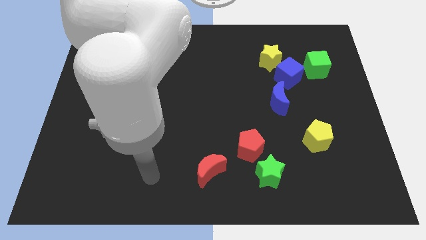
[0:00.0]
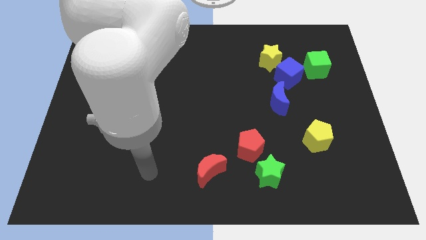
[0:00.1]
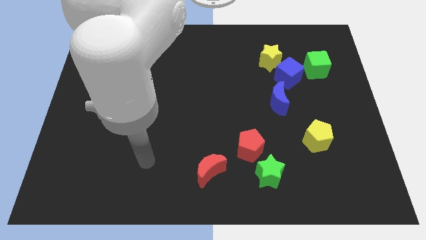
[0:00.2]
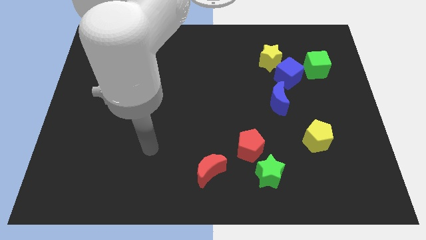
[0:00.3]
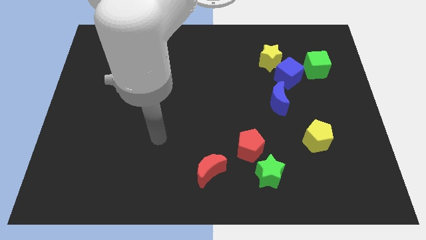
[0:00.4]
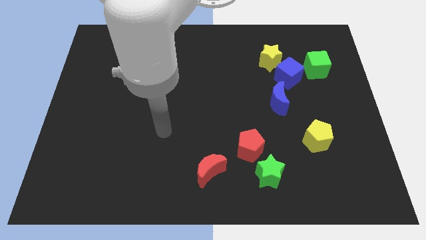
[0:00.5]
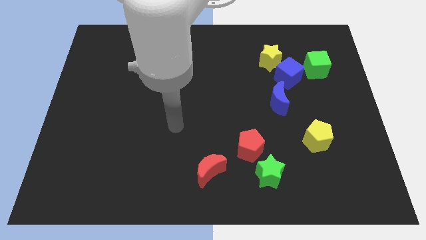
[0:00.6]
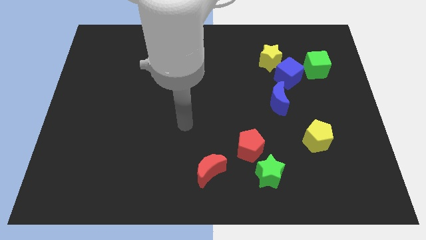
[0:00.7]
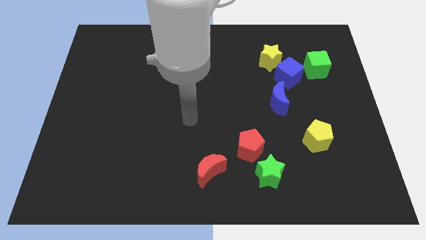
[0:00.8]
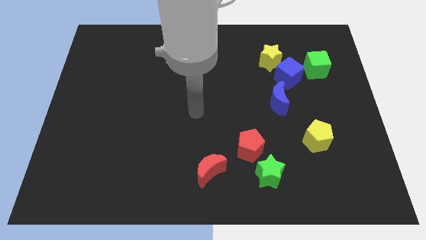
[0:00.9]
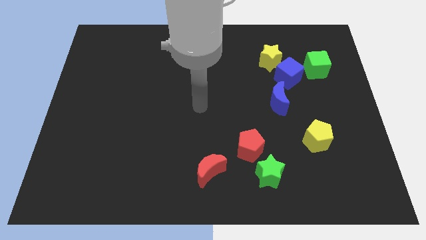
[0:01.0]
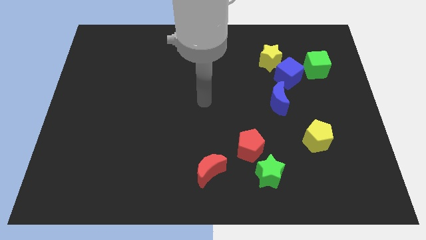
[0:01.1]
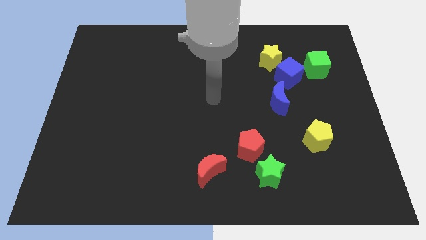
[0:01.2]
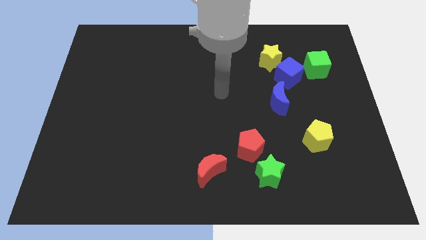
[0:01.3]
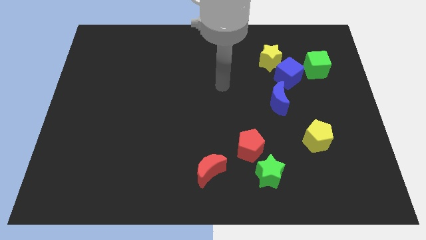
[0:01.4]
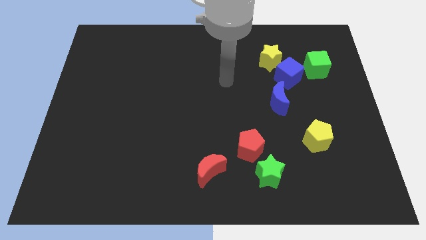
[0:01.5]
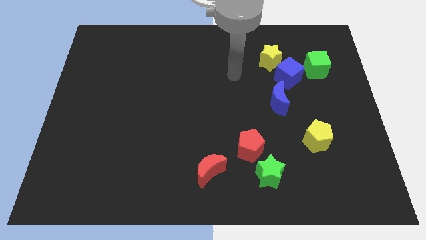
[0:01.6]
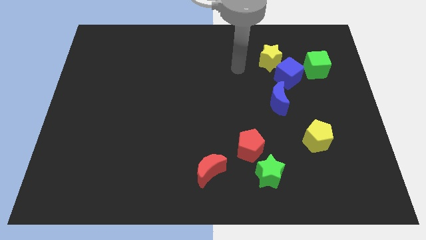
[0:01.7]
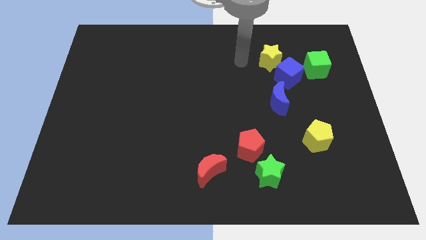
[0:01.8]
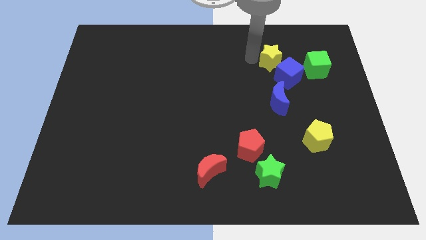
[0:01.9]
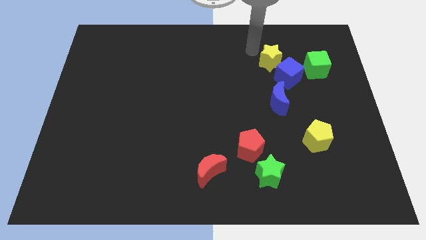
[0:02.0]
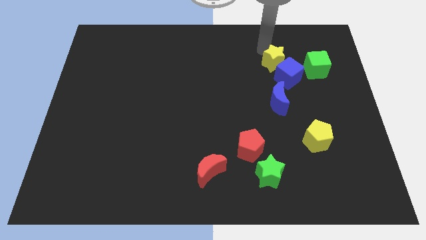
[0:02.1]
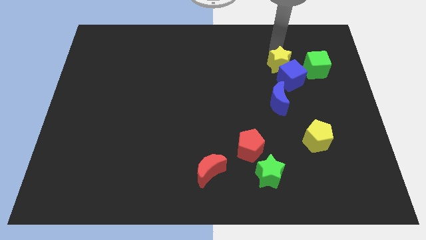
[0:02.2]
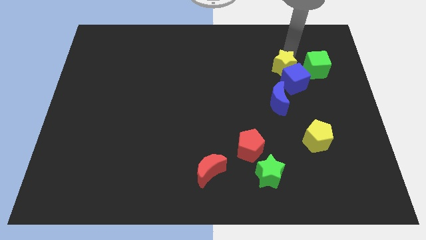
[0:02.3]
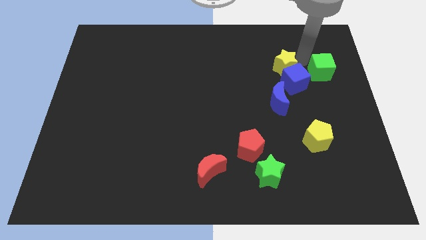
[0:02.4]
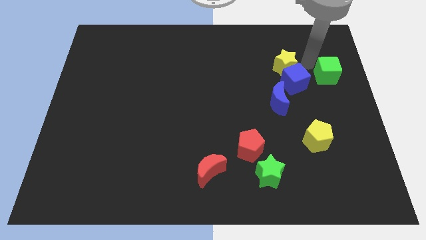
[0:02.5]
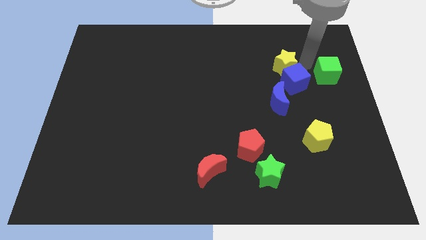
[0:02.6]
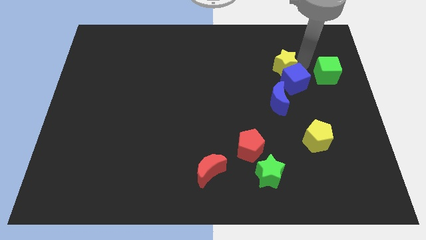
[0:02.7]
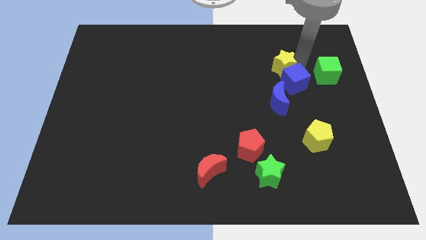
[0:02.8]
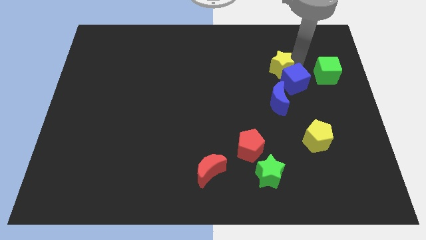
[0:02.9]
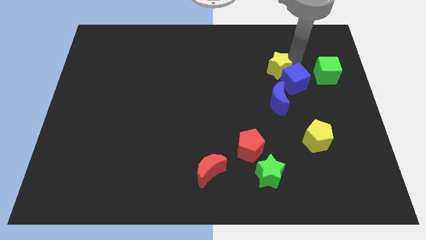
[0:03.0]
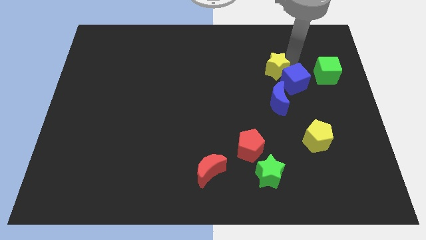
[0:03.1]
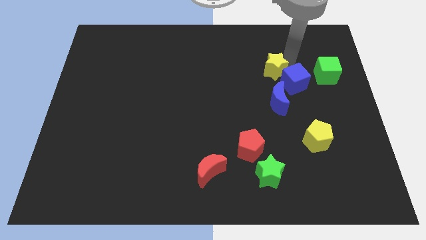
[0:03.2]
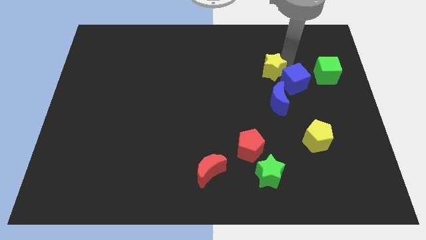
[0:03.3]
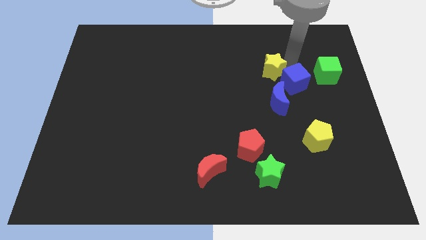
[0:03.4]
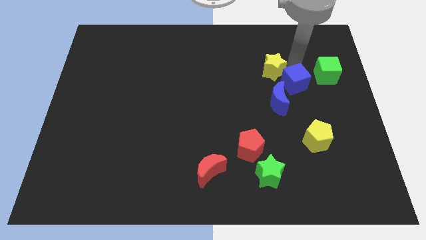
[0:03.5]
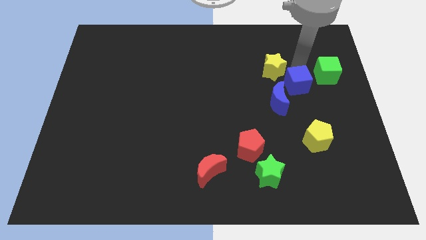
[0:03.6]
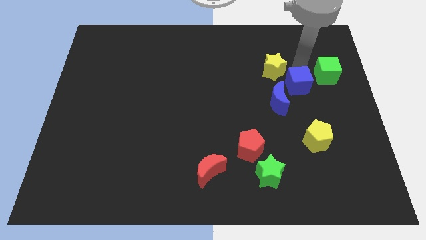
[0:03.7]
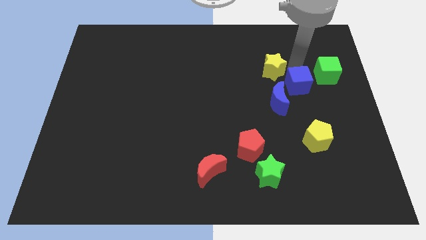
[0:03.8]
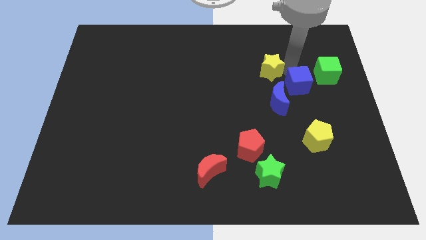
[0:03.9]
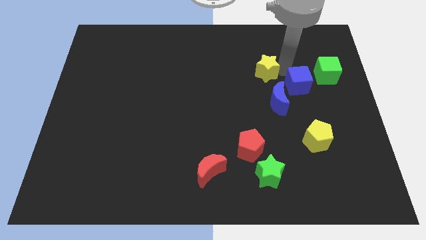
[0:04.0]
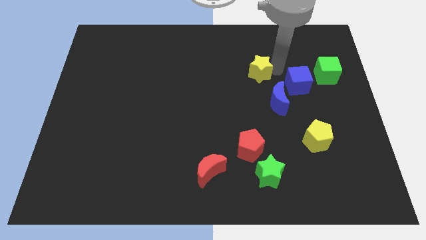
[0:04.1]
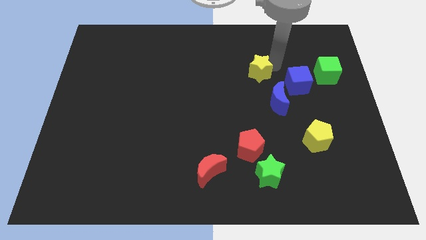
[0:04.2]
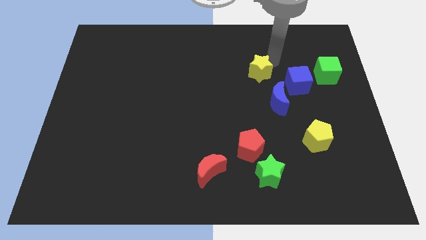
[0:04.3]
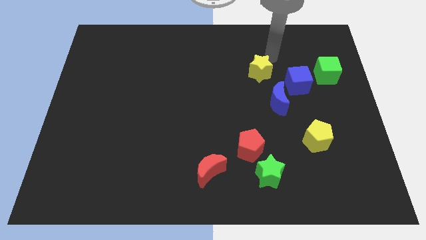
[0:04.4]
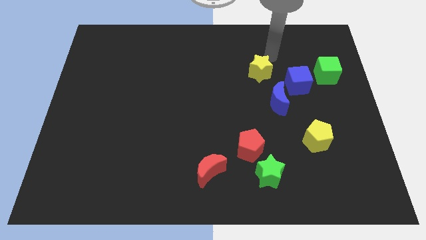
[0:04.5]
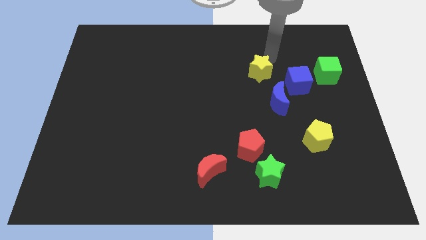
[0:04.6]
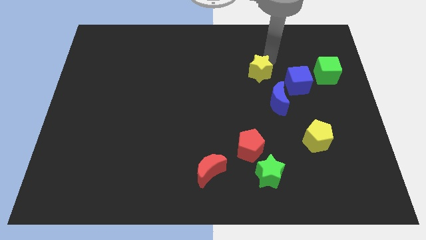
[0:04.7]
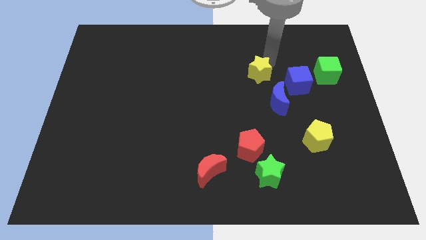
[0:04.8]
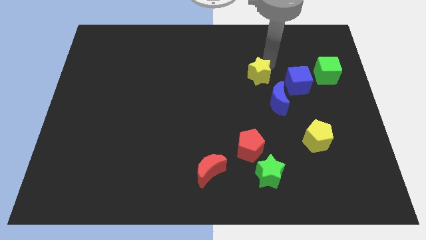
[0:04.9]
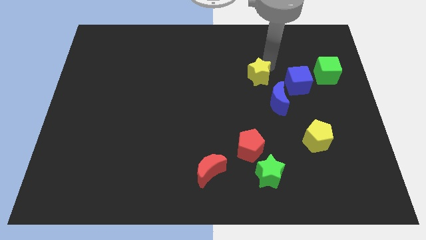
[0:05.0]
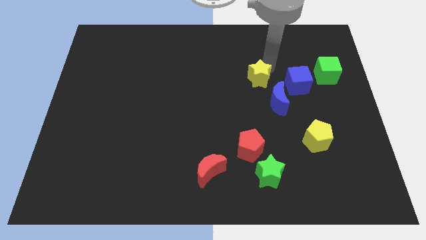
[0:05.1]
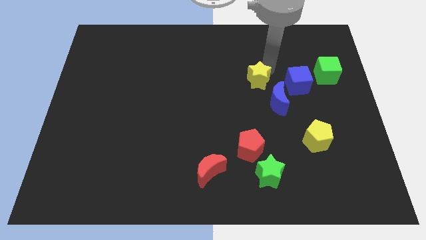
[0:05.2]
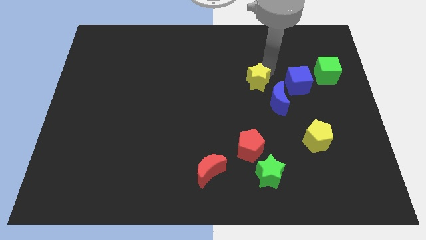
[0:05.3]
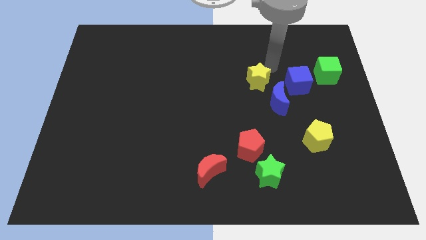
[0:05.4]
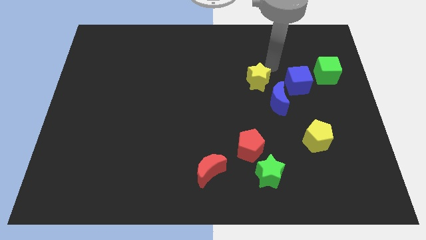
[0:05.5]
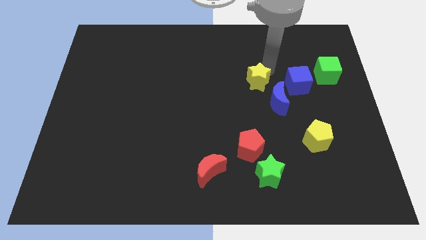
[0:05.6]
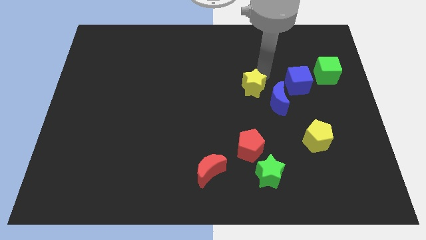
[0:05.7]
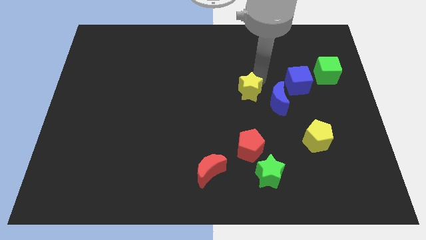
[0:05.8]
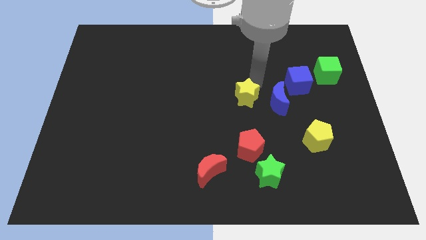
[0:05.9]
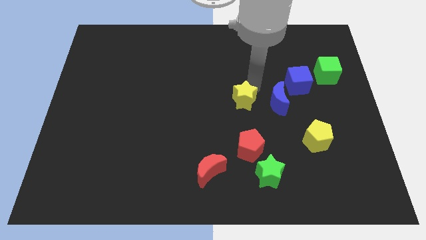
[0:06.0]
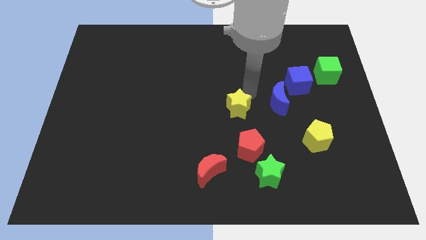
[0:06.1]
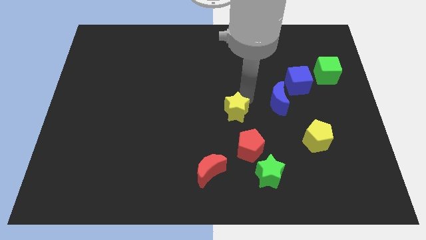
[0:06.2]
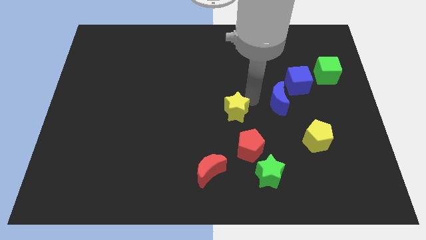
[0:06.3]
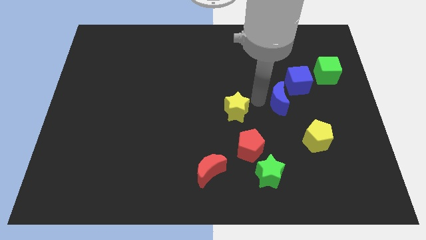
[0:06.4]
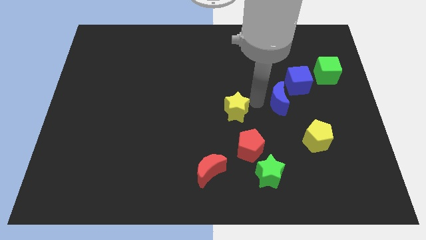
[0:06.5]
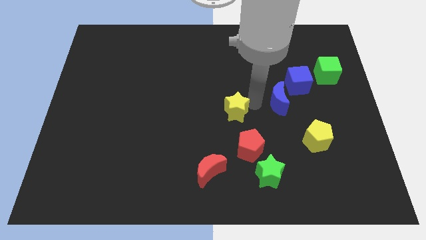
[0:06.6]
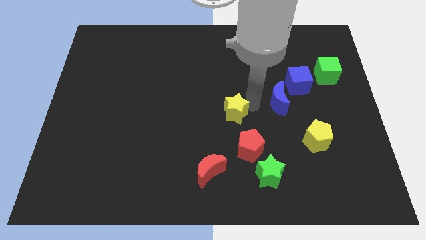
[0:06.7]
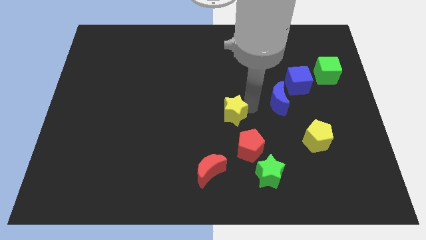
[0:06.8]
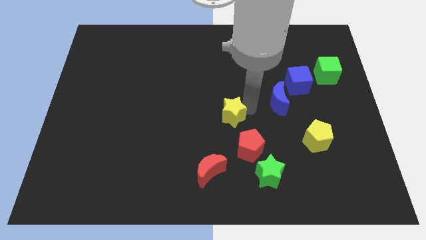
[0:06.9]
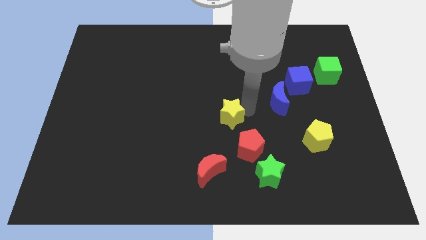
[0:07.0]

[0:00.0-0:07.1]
push the yellow star down and left diagonally

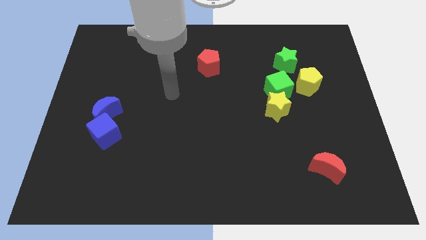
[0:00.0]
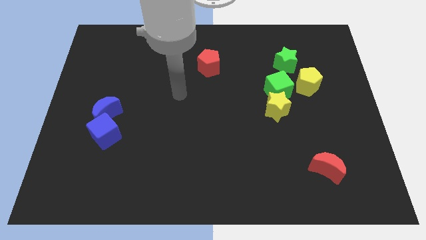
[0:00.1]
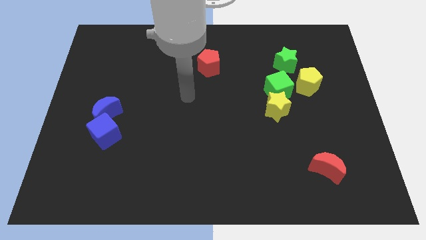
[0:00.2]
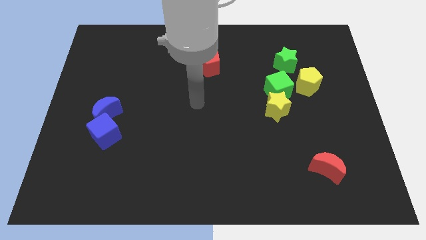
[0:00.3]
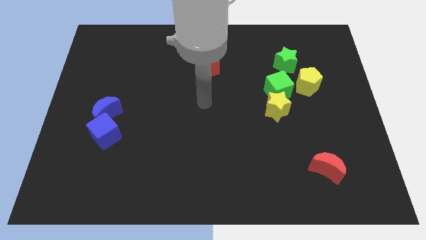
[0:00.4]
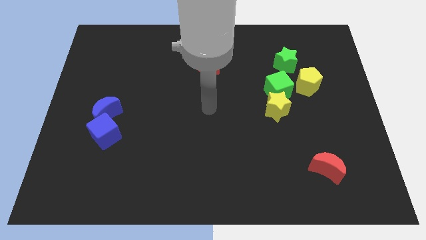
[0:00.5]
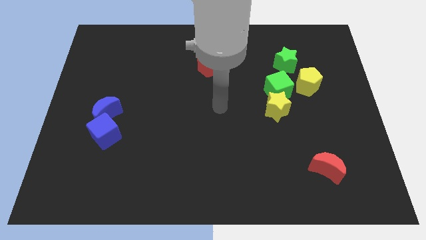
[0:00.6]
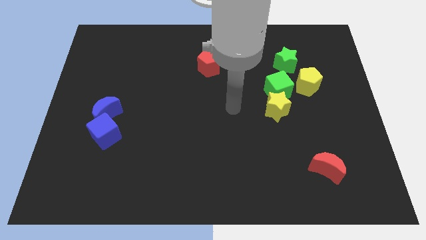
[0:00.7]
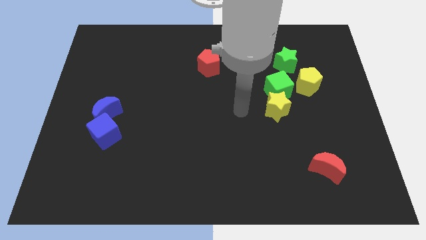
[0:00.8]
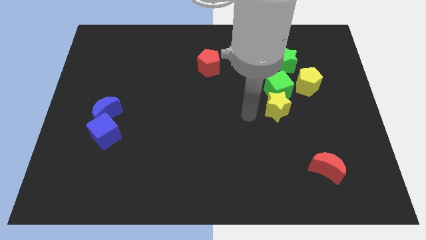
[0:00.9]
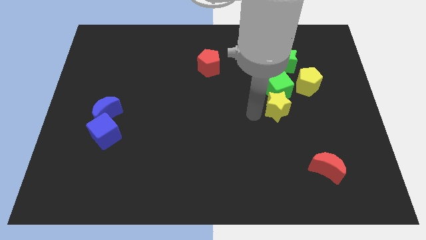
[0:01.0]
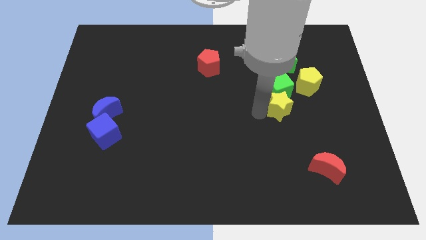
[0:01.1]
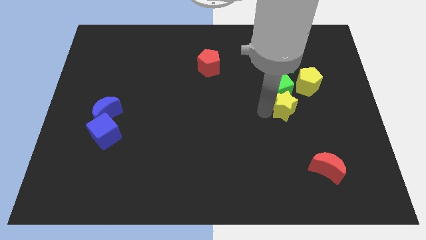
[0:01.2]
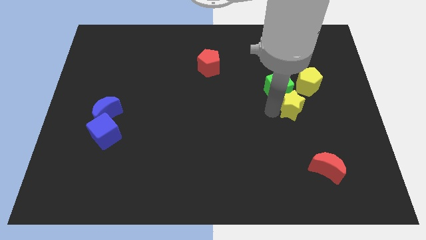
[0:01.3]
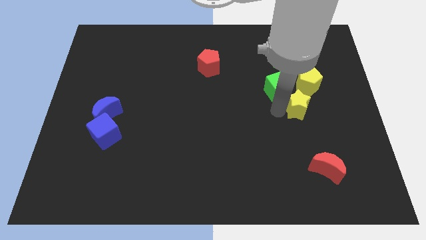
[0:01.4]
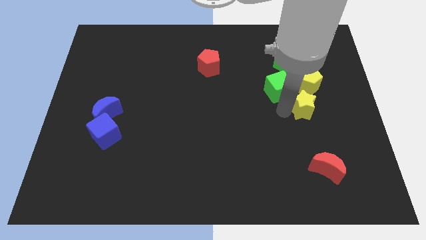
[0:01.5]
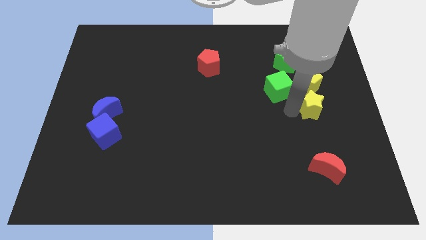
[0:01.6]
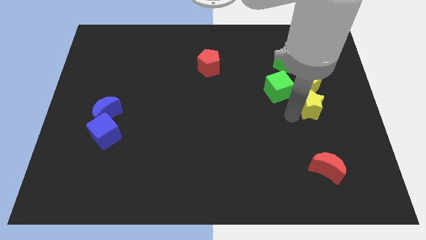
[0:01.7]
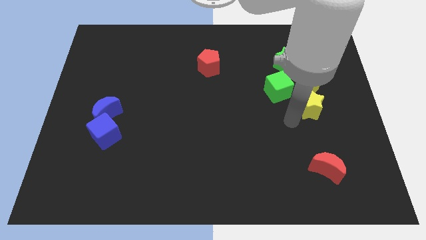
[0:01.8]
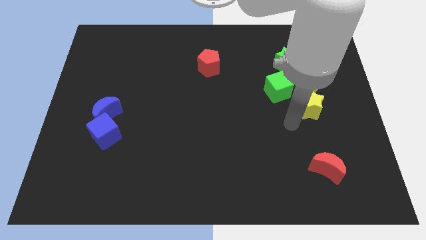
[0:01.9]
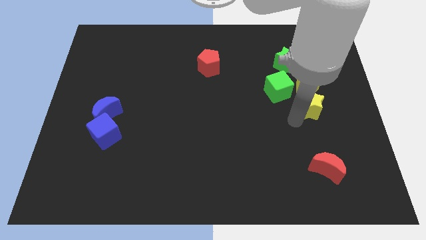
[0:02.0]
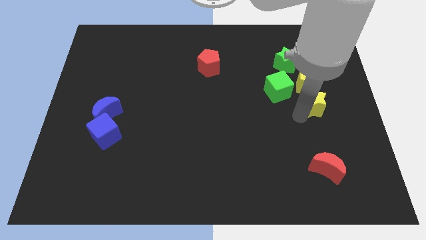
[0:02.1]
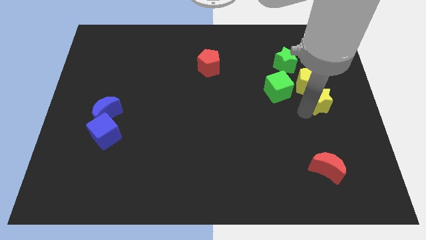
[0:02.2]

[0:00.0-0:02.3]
slightly move the yellow star upwards and then to the right
